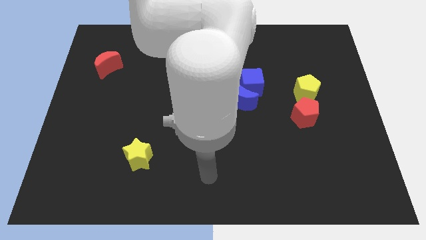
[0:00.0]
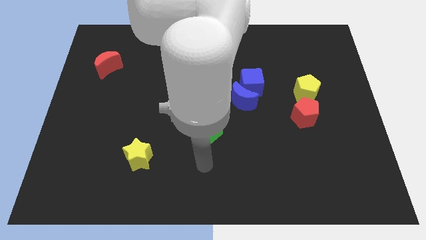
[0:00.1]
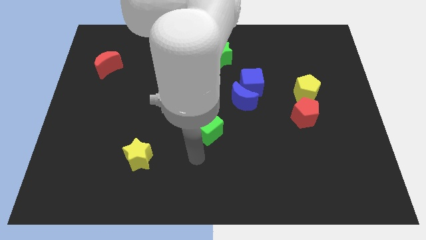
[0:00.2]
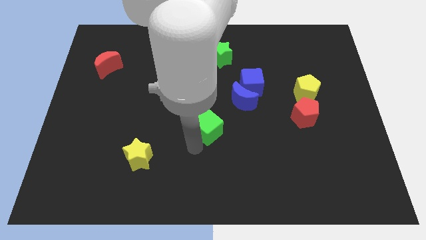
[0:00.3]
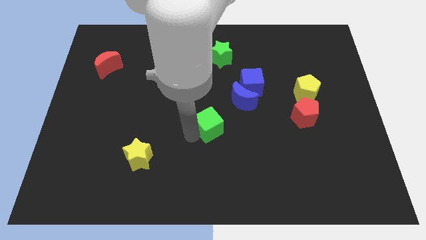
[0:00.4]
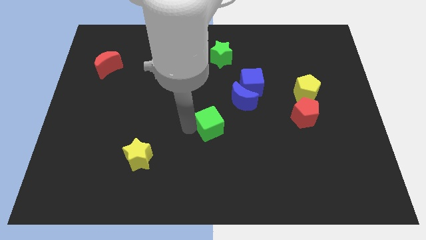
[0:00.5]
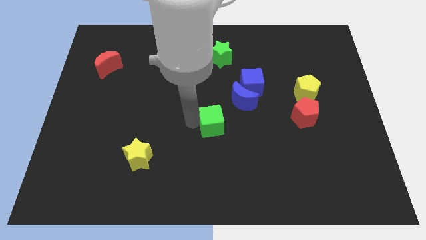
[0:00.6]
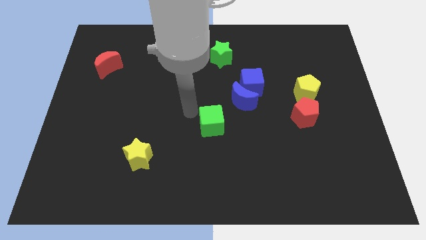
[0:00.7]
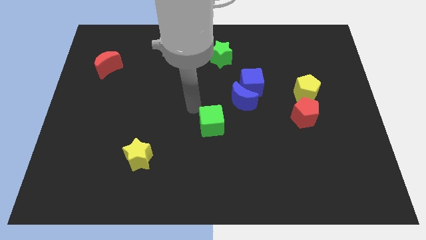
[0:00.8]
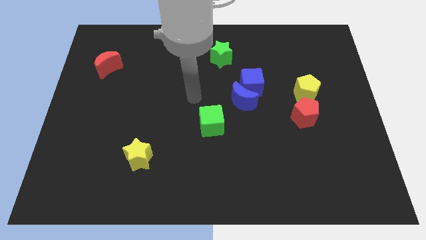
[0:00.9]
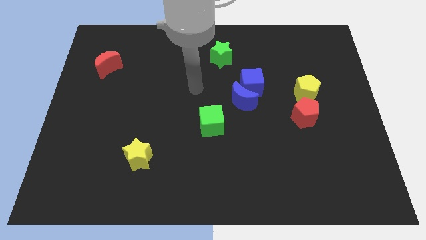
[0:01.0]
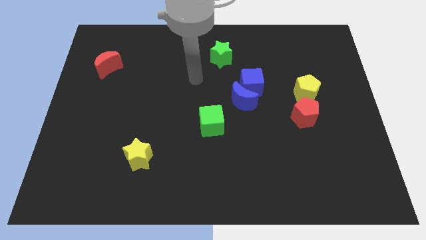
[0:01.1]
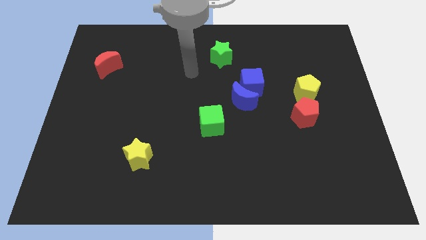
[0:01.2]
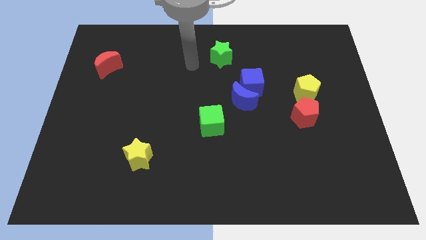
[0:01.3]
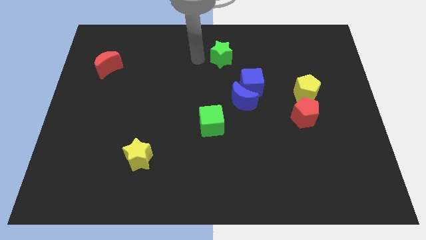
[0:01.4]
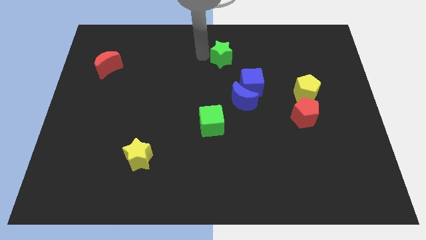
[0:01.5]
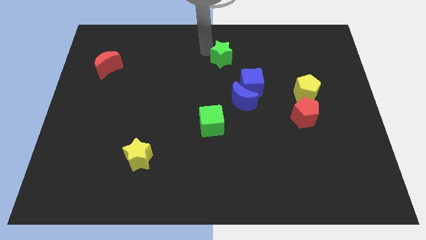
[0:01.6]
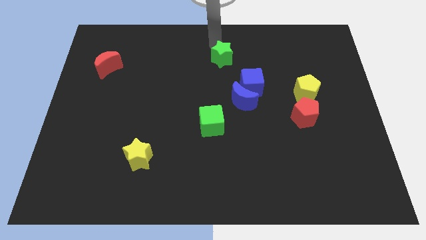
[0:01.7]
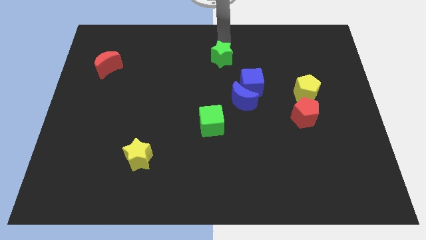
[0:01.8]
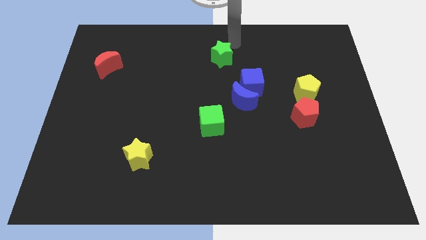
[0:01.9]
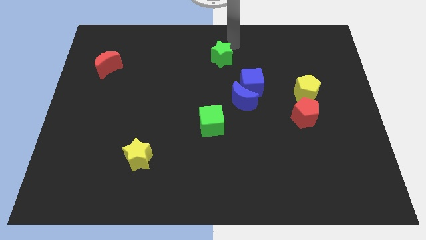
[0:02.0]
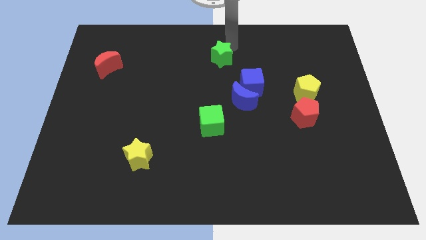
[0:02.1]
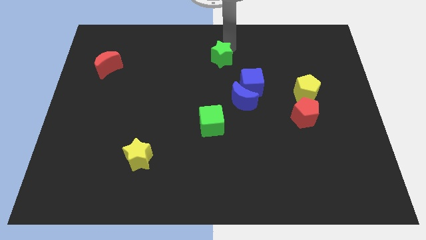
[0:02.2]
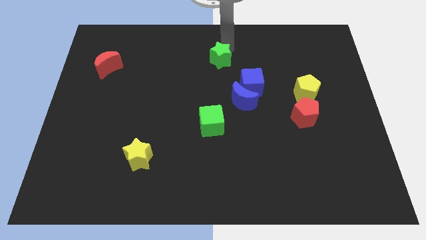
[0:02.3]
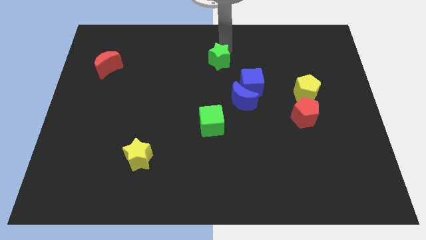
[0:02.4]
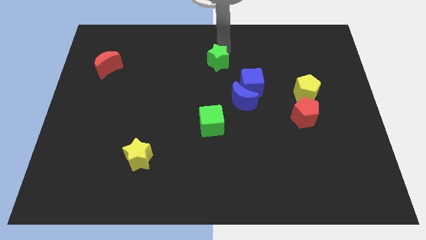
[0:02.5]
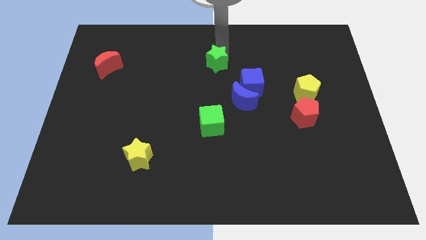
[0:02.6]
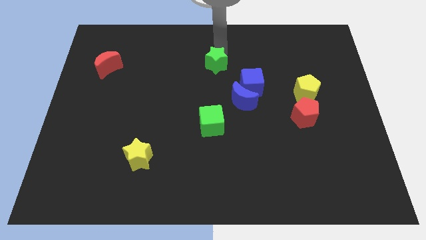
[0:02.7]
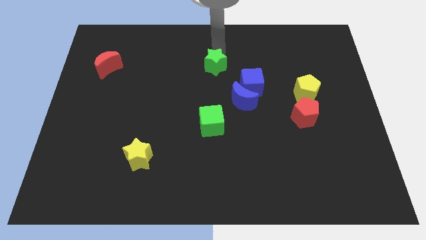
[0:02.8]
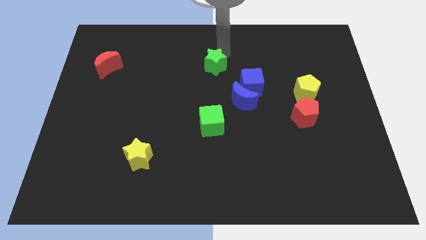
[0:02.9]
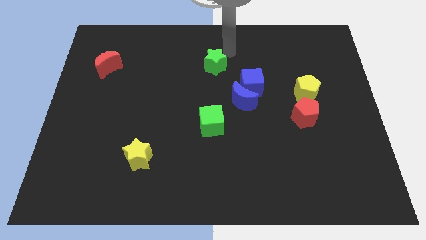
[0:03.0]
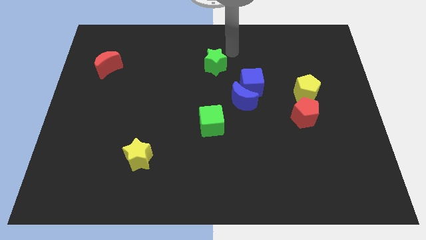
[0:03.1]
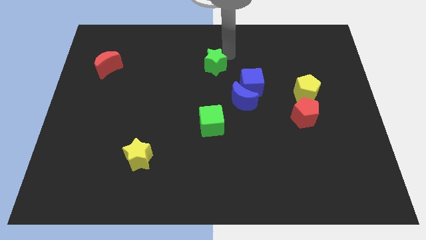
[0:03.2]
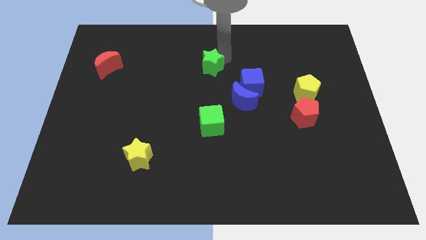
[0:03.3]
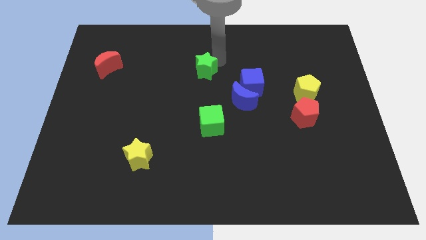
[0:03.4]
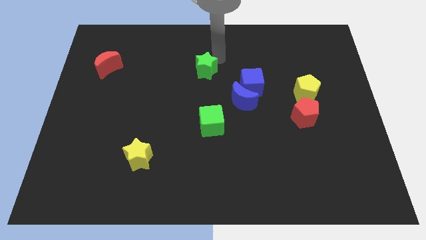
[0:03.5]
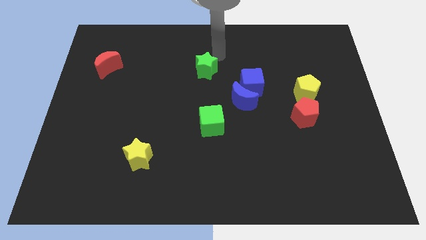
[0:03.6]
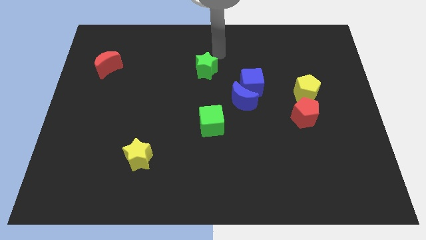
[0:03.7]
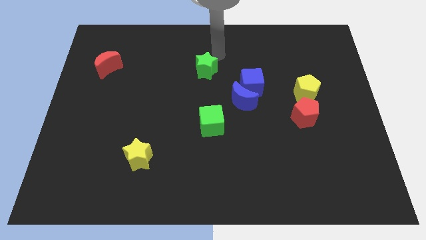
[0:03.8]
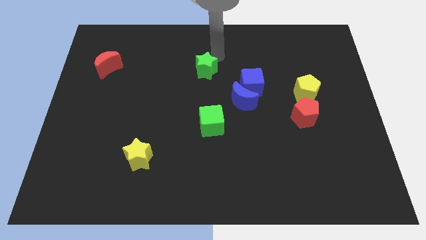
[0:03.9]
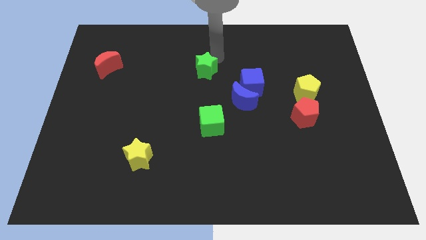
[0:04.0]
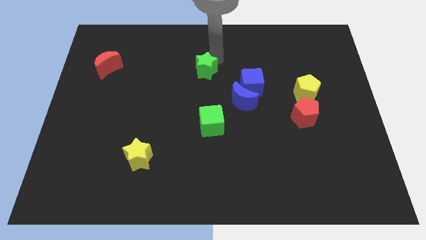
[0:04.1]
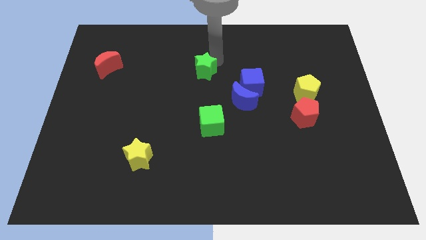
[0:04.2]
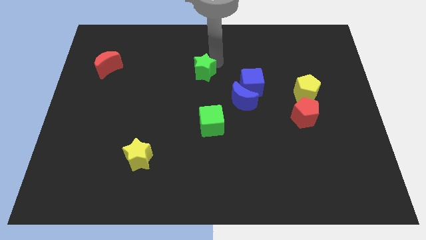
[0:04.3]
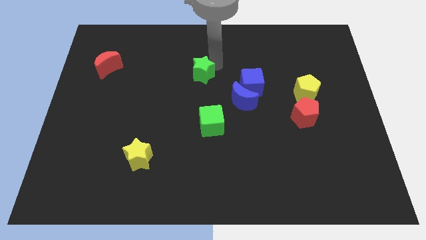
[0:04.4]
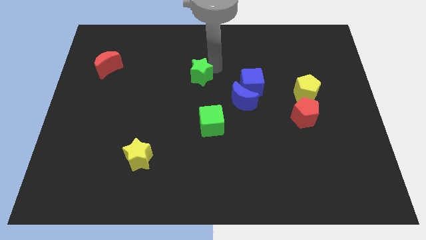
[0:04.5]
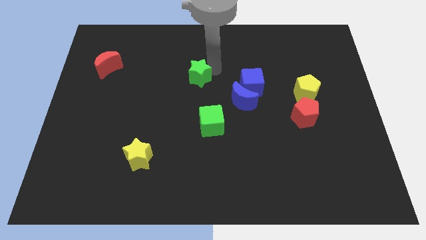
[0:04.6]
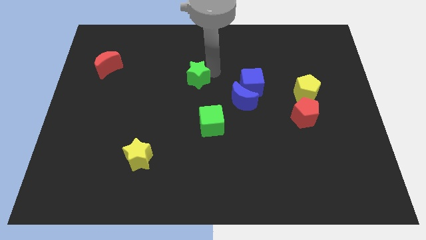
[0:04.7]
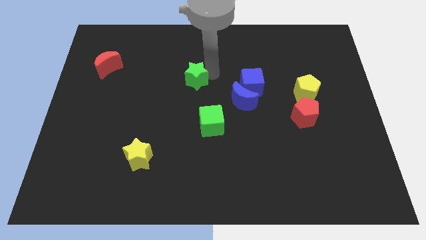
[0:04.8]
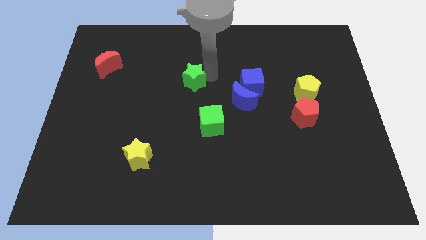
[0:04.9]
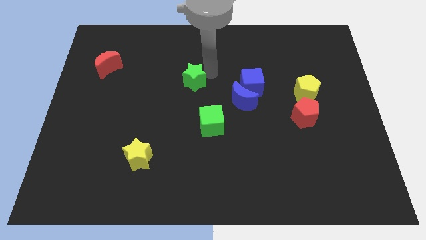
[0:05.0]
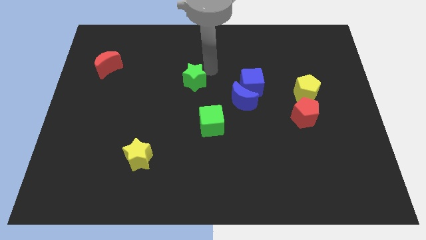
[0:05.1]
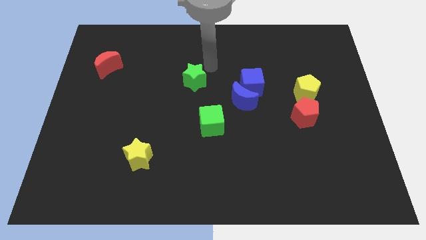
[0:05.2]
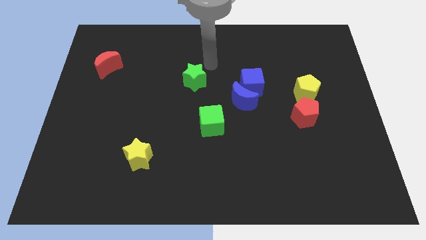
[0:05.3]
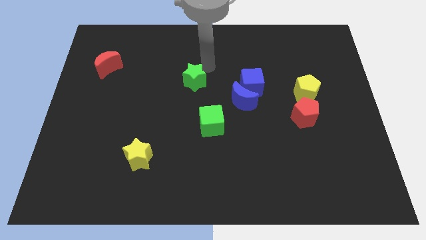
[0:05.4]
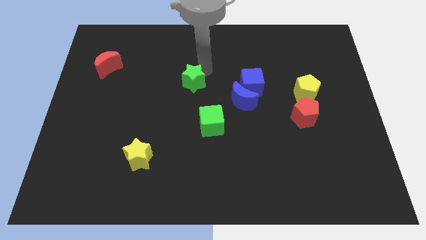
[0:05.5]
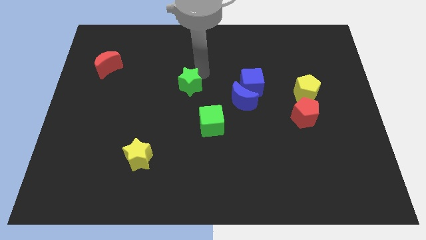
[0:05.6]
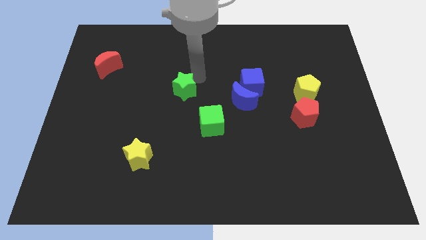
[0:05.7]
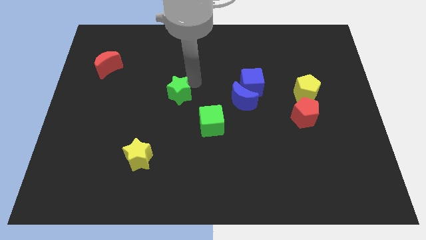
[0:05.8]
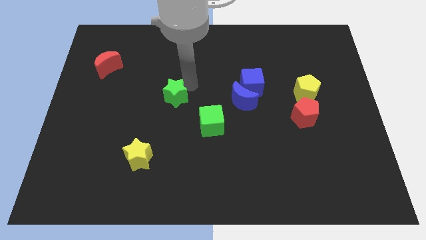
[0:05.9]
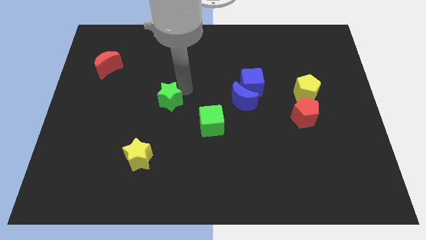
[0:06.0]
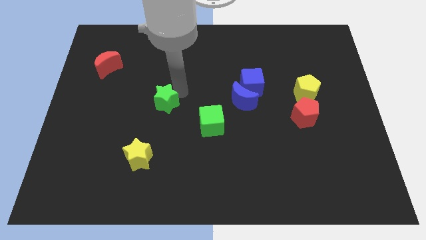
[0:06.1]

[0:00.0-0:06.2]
move the green star downwards and then to the left

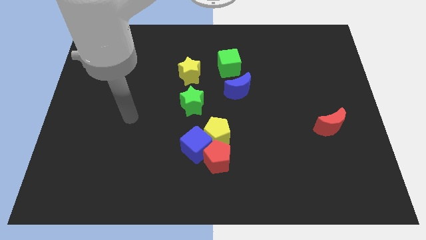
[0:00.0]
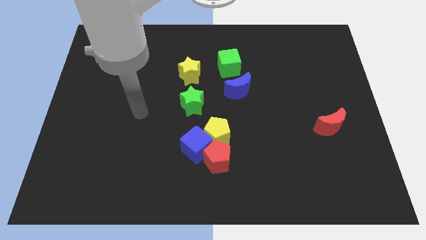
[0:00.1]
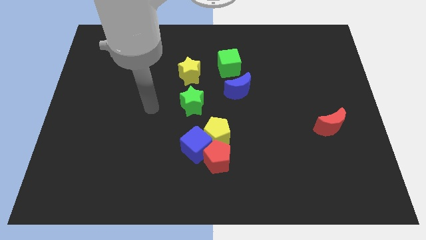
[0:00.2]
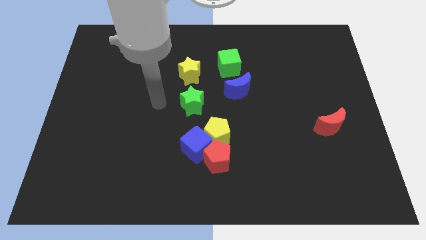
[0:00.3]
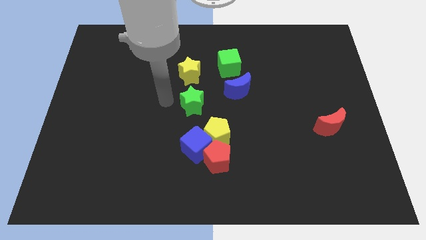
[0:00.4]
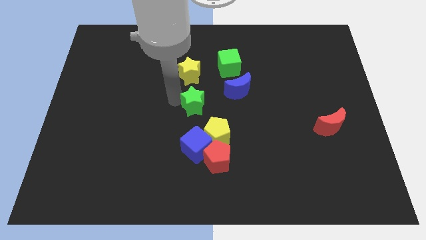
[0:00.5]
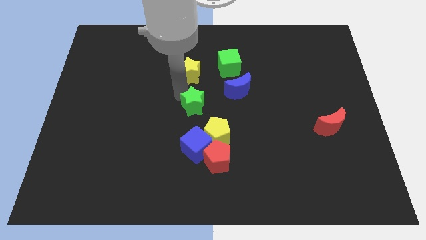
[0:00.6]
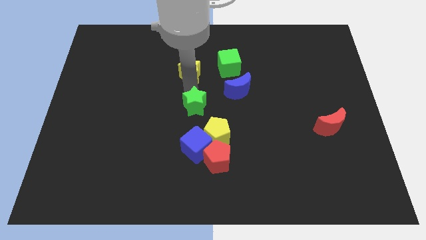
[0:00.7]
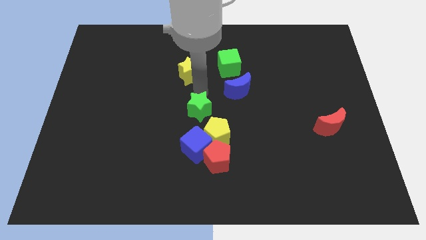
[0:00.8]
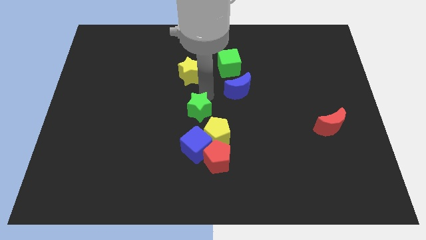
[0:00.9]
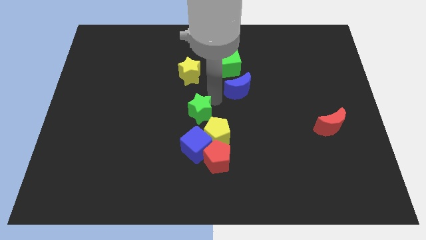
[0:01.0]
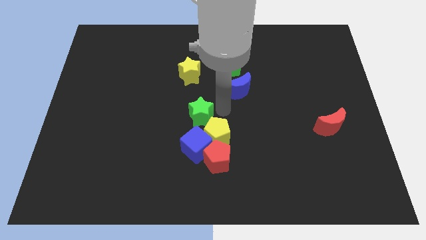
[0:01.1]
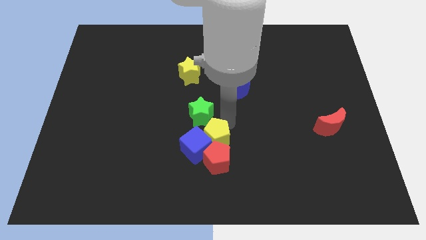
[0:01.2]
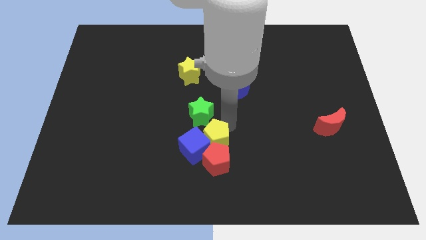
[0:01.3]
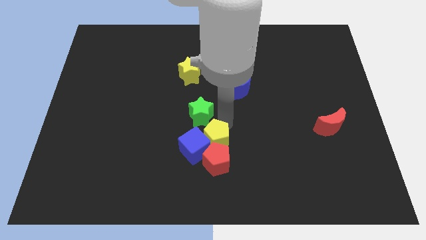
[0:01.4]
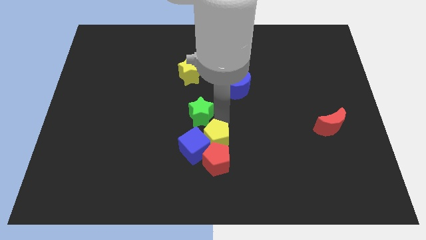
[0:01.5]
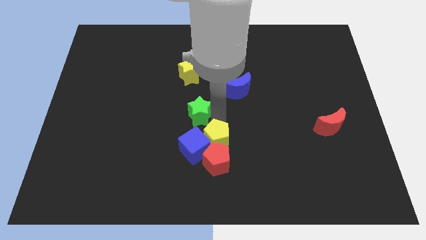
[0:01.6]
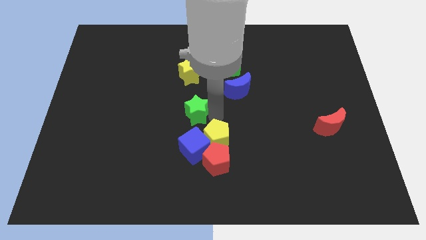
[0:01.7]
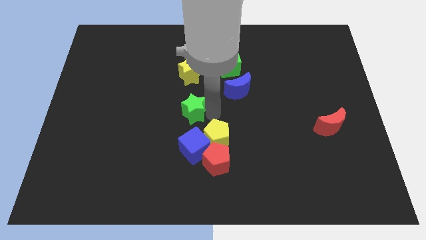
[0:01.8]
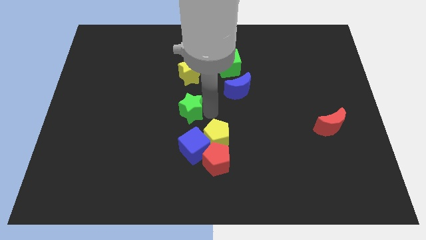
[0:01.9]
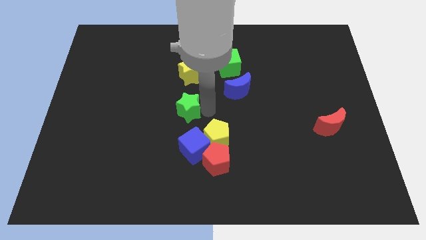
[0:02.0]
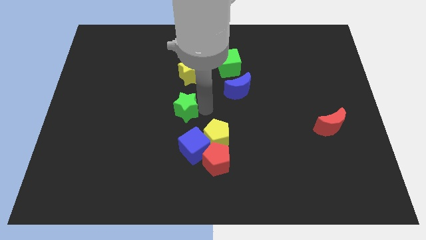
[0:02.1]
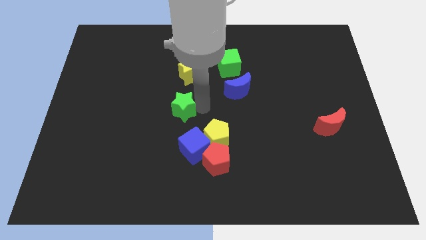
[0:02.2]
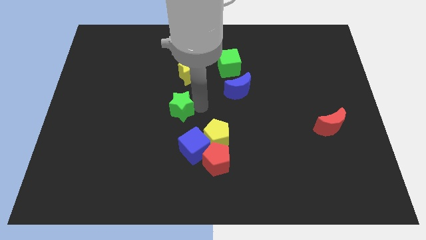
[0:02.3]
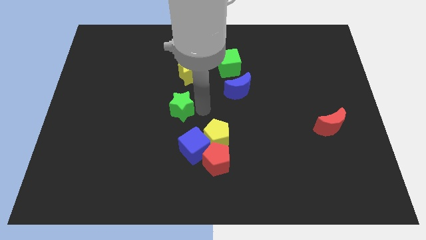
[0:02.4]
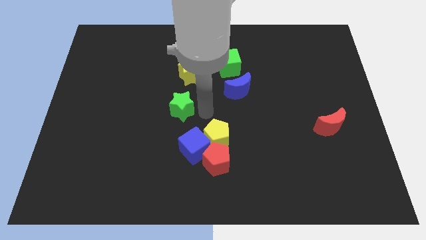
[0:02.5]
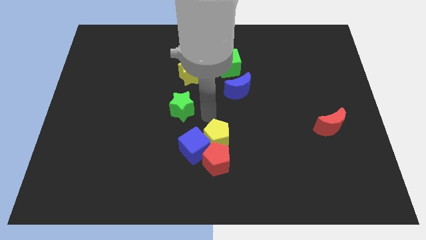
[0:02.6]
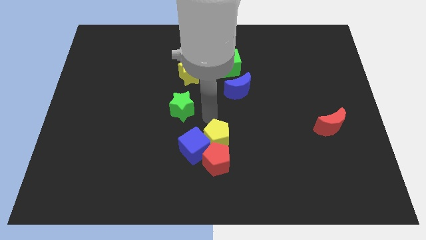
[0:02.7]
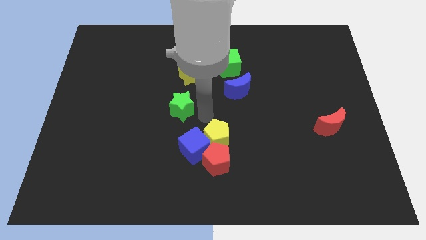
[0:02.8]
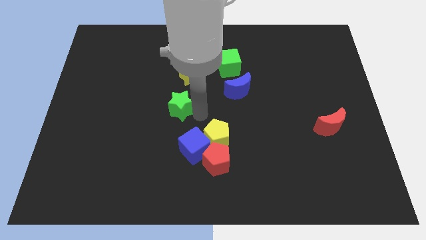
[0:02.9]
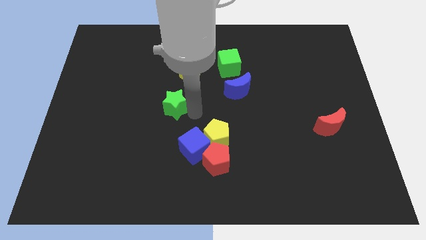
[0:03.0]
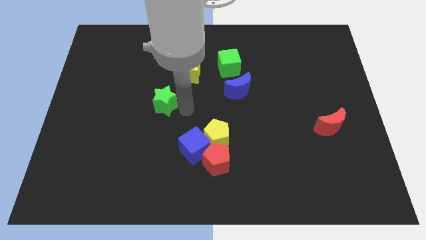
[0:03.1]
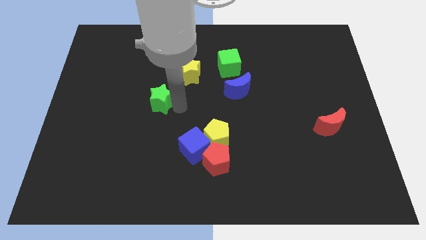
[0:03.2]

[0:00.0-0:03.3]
slightly move the green star to the left
